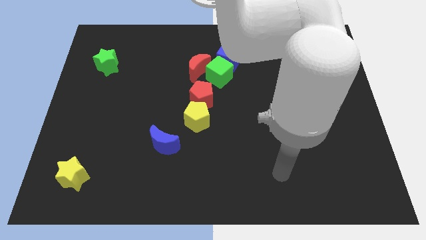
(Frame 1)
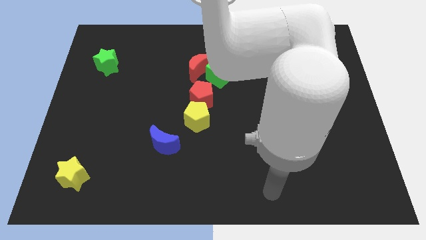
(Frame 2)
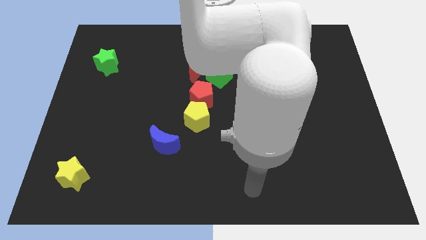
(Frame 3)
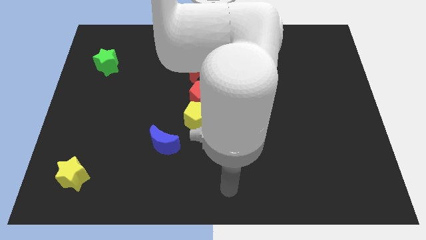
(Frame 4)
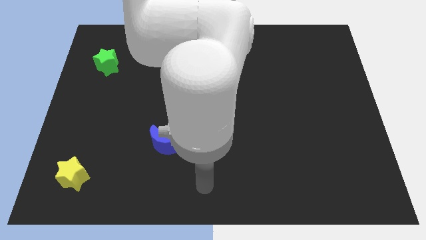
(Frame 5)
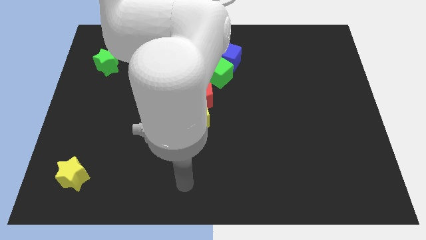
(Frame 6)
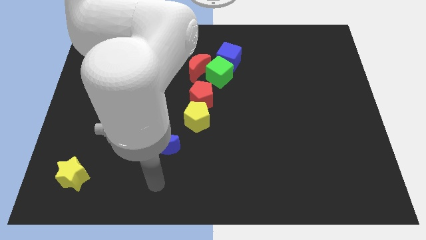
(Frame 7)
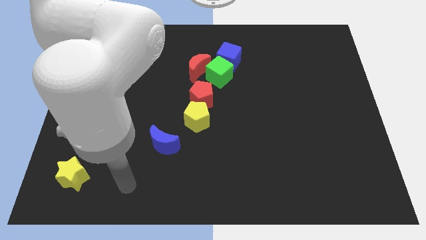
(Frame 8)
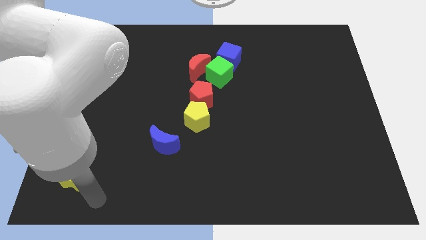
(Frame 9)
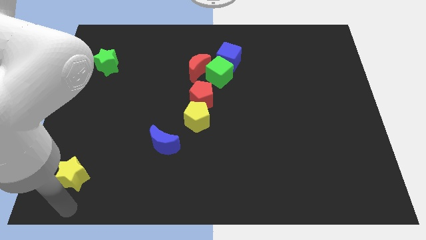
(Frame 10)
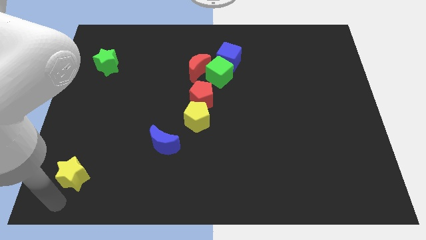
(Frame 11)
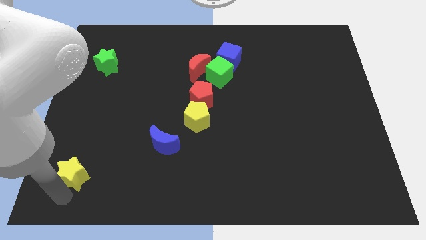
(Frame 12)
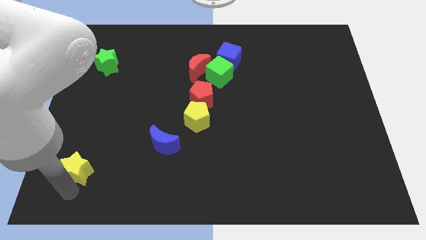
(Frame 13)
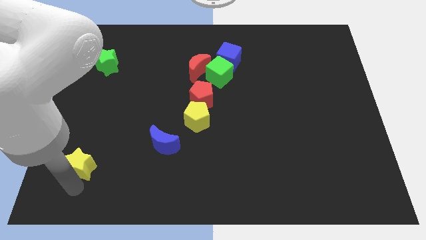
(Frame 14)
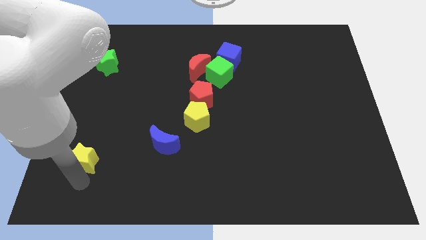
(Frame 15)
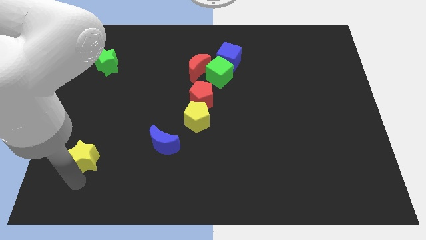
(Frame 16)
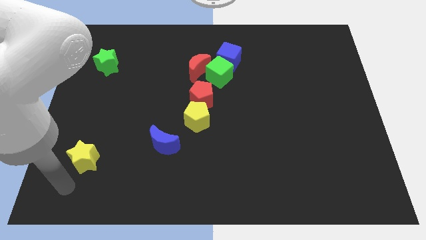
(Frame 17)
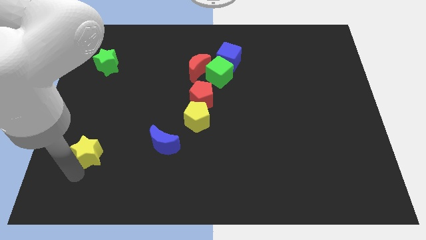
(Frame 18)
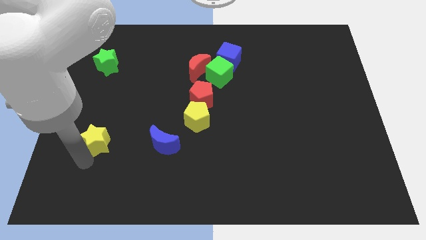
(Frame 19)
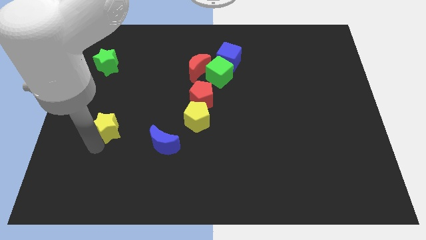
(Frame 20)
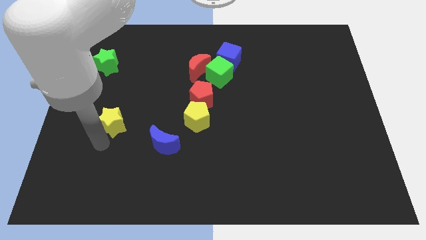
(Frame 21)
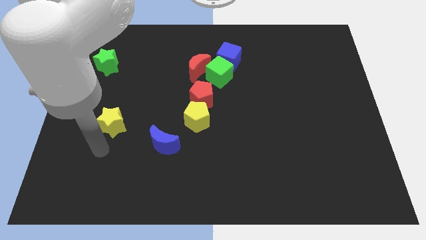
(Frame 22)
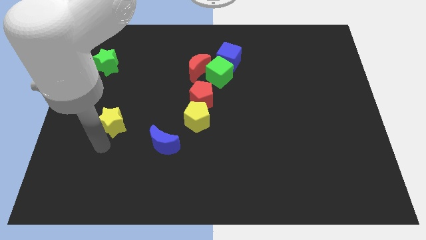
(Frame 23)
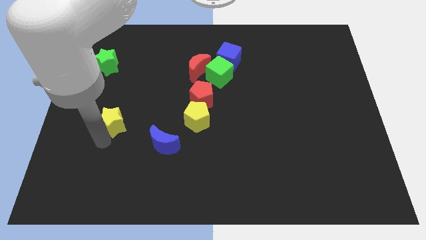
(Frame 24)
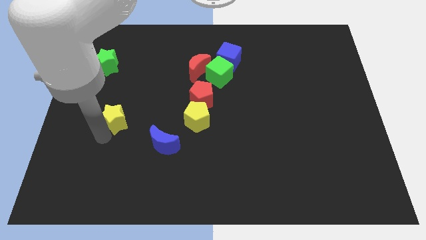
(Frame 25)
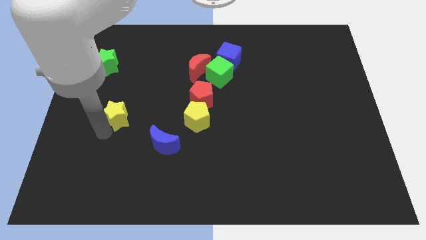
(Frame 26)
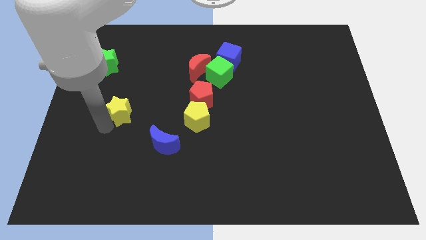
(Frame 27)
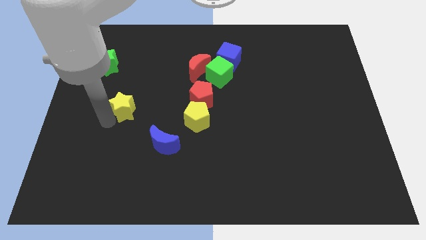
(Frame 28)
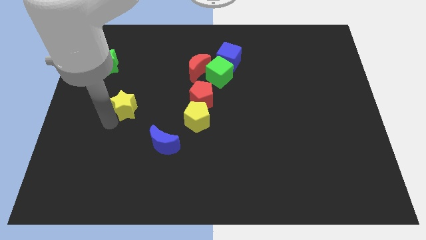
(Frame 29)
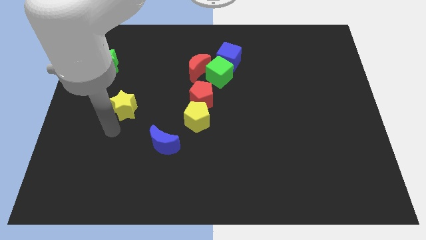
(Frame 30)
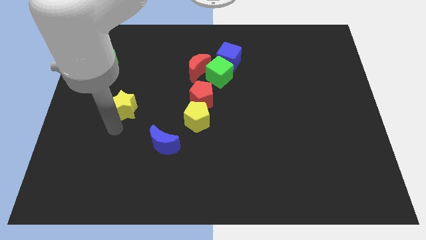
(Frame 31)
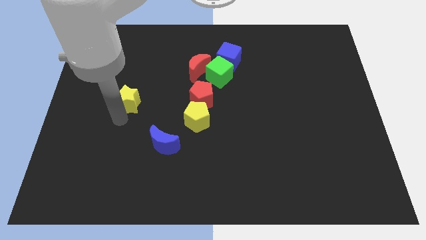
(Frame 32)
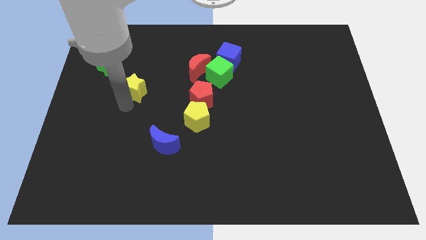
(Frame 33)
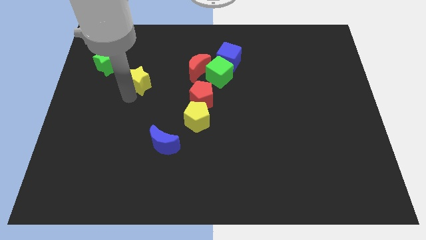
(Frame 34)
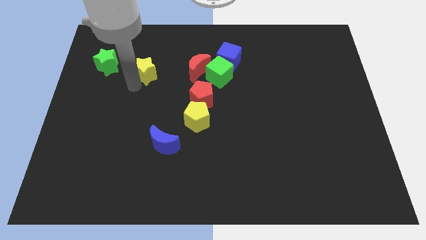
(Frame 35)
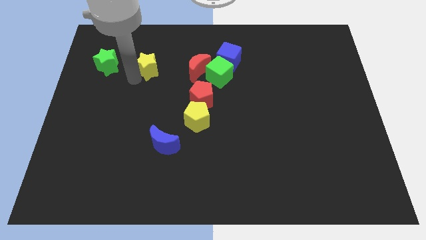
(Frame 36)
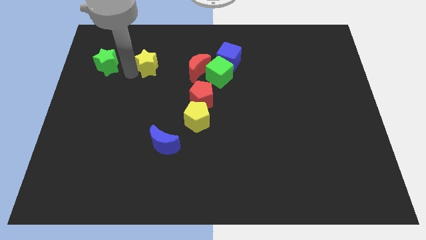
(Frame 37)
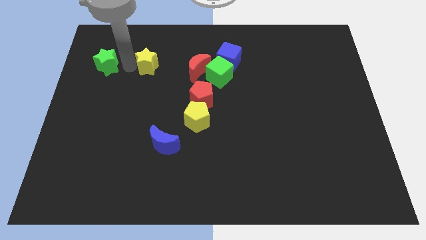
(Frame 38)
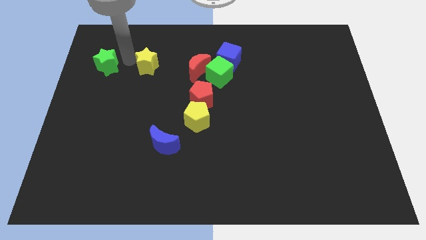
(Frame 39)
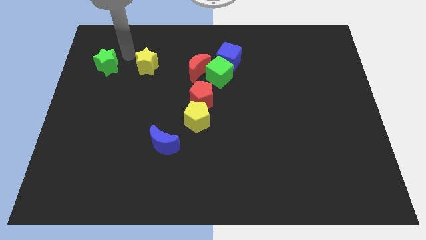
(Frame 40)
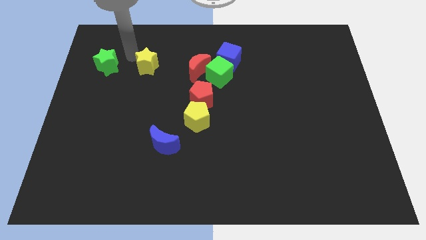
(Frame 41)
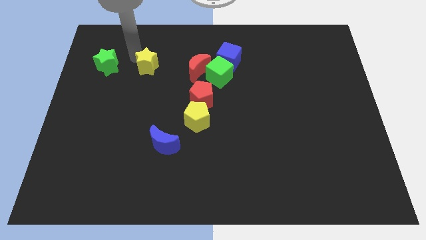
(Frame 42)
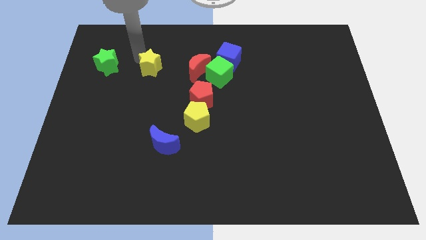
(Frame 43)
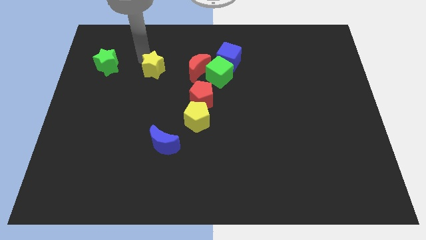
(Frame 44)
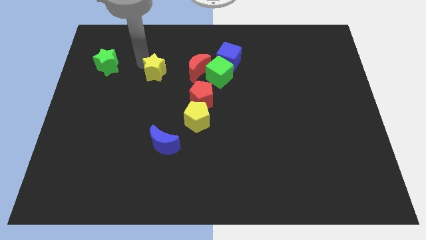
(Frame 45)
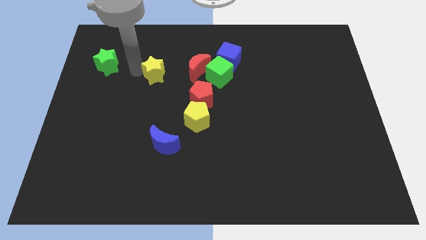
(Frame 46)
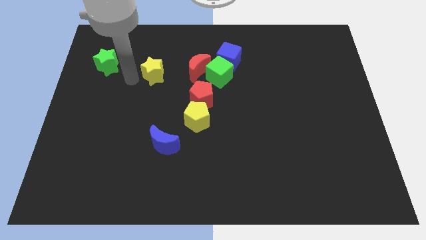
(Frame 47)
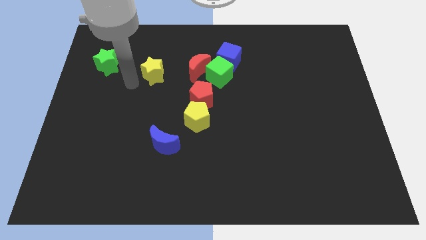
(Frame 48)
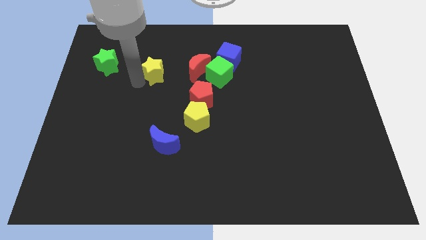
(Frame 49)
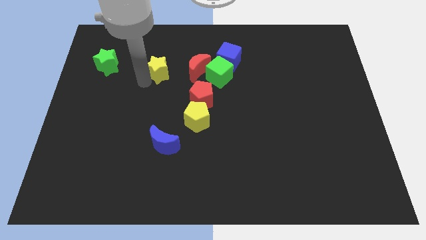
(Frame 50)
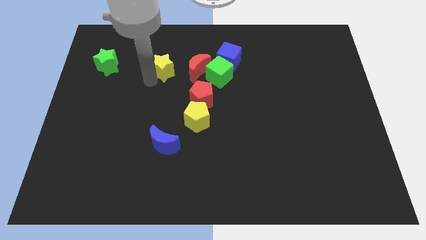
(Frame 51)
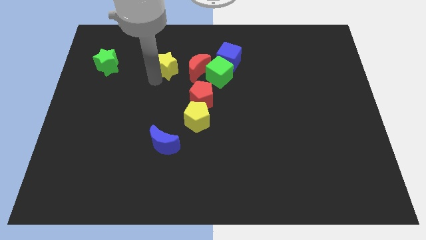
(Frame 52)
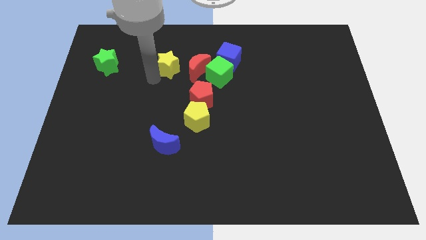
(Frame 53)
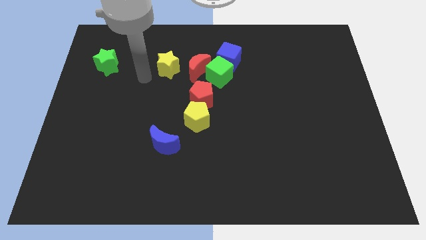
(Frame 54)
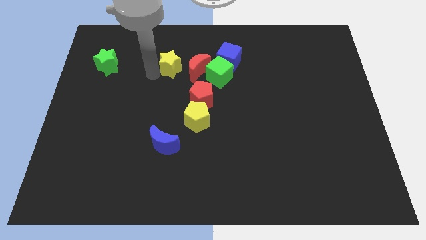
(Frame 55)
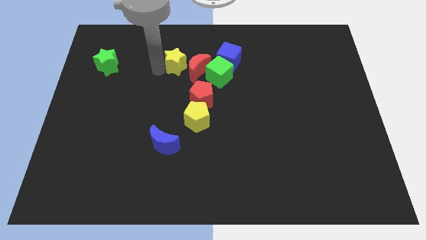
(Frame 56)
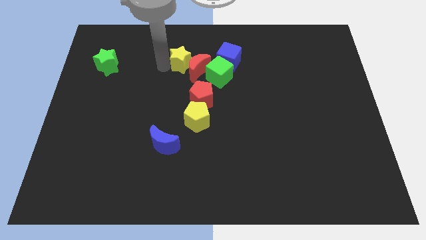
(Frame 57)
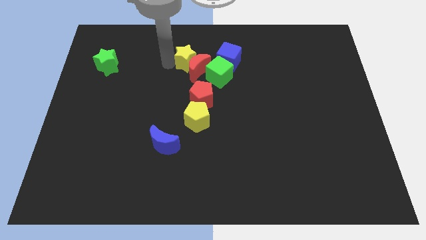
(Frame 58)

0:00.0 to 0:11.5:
push the yellow star to the top side of the red pentagon
